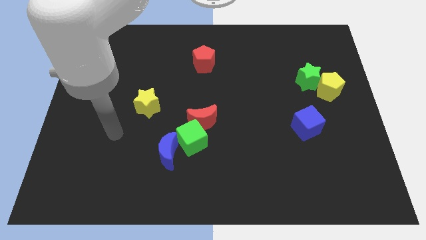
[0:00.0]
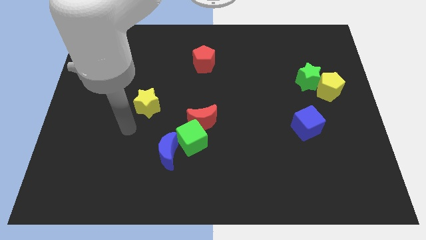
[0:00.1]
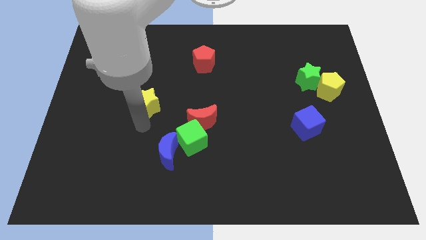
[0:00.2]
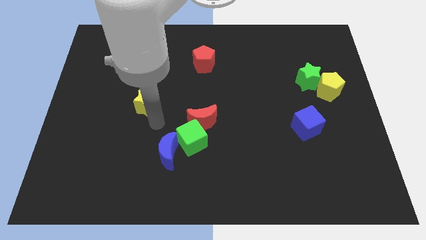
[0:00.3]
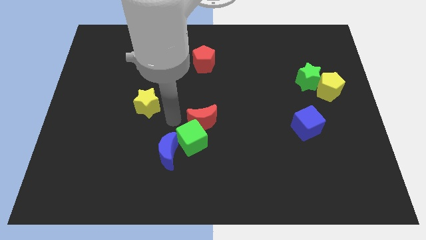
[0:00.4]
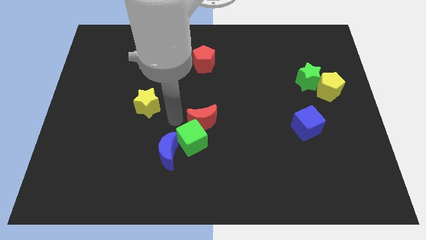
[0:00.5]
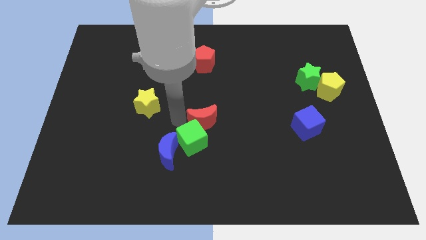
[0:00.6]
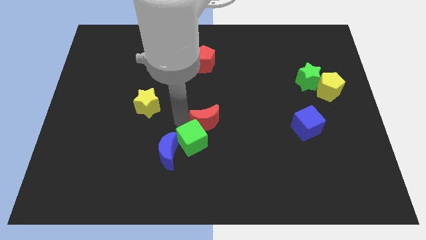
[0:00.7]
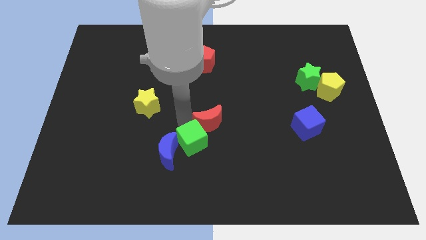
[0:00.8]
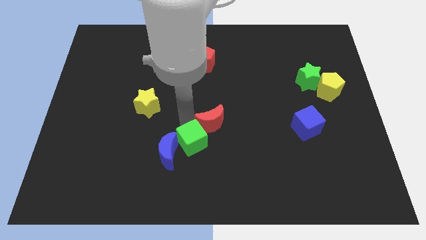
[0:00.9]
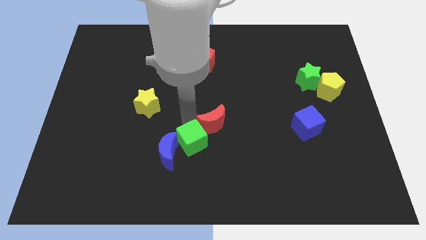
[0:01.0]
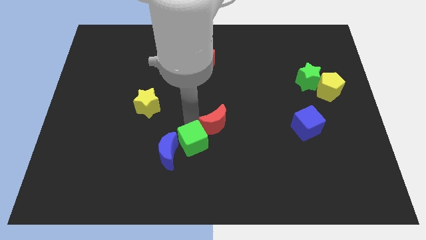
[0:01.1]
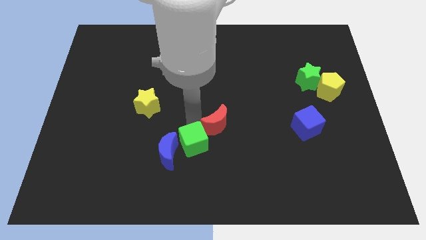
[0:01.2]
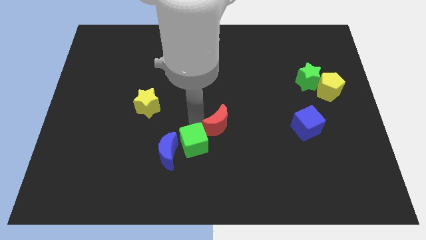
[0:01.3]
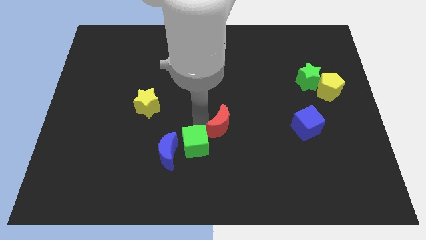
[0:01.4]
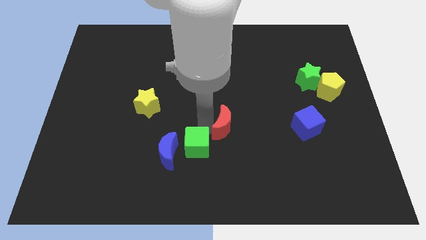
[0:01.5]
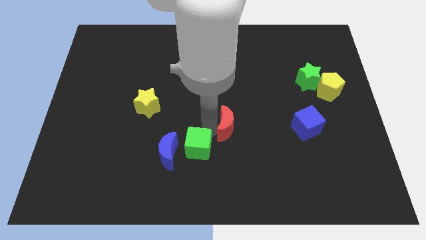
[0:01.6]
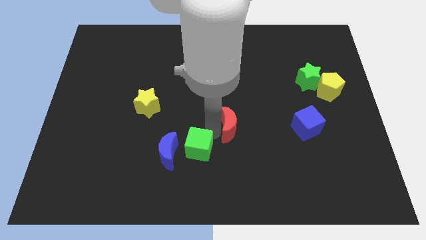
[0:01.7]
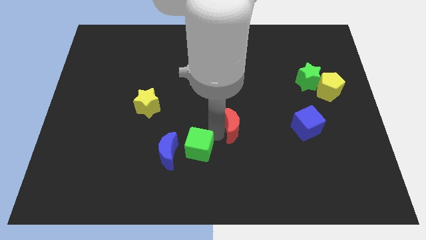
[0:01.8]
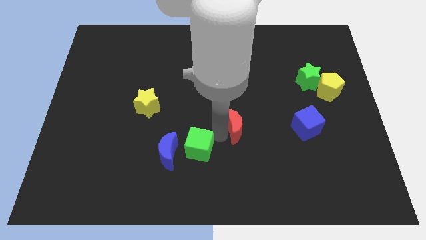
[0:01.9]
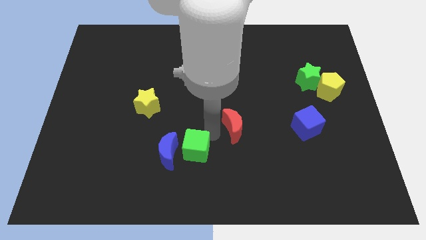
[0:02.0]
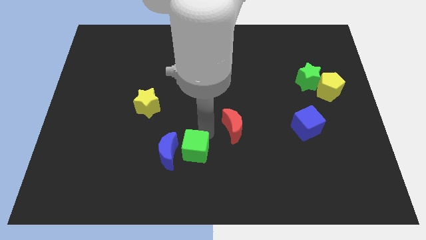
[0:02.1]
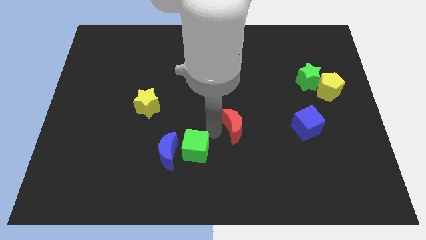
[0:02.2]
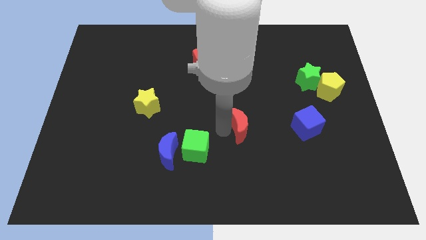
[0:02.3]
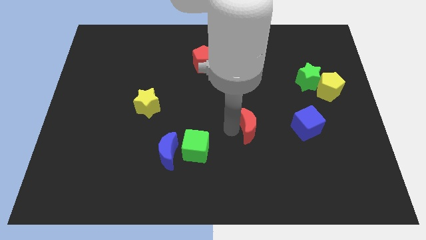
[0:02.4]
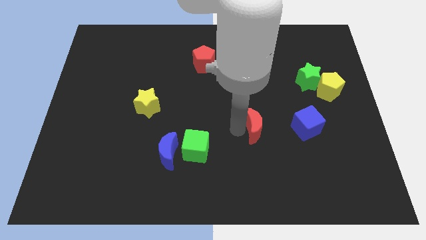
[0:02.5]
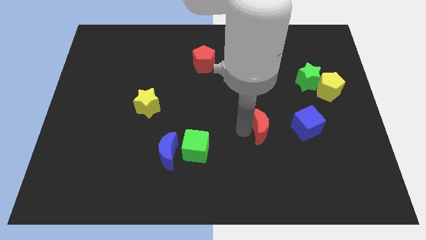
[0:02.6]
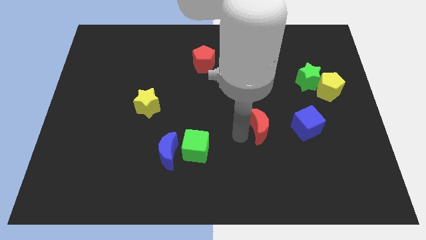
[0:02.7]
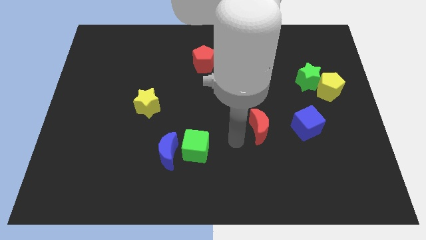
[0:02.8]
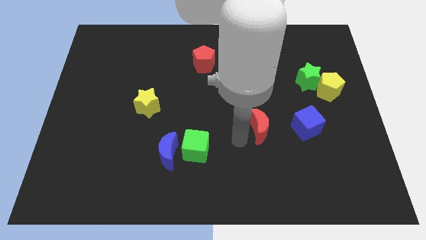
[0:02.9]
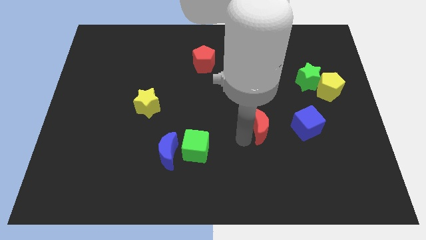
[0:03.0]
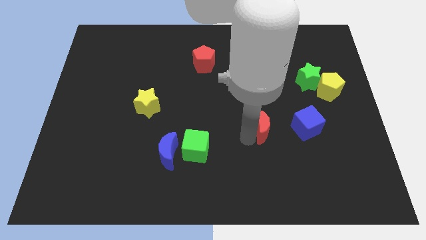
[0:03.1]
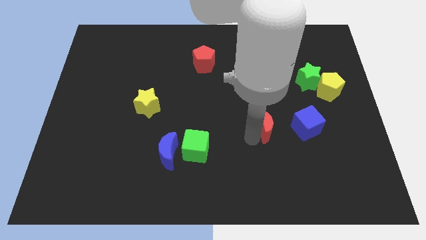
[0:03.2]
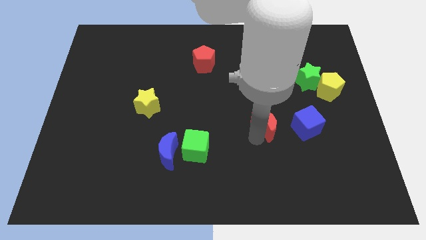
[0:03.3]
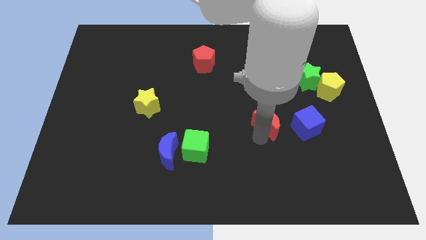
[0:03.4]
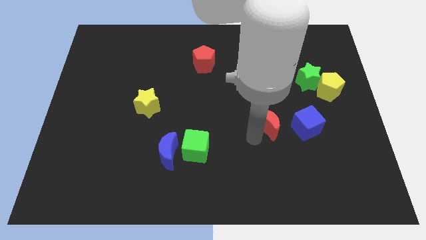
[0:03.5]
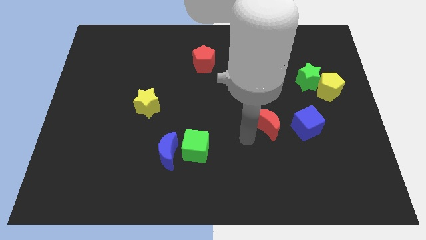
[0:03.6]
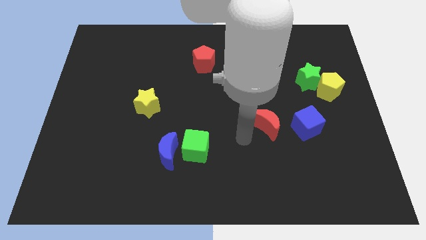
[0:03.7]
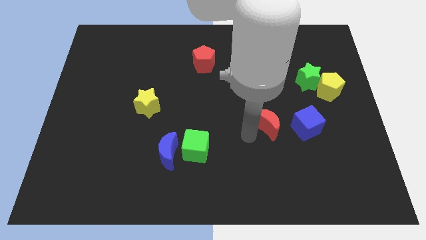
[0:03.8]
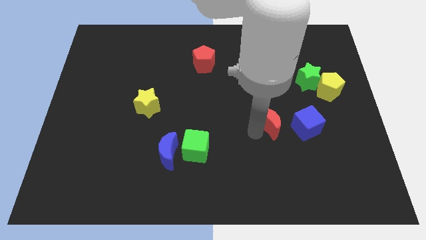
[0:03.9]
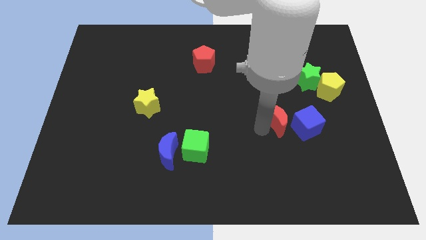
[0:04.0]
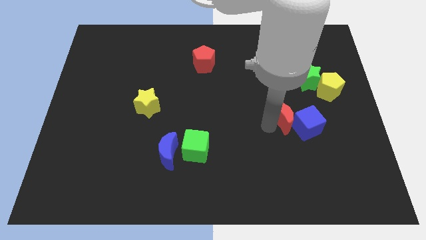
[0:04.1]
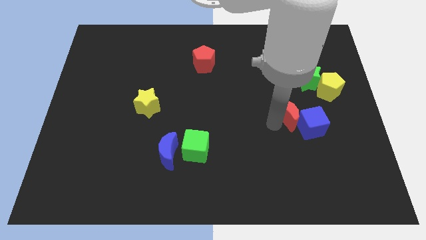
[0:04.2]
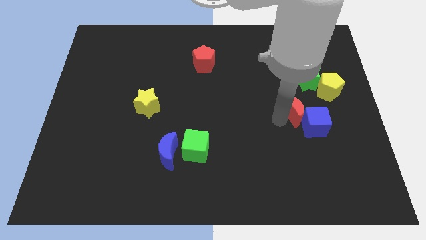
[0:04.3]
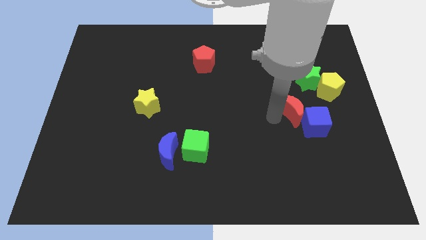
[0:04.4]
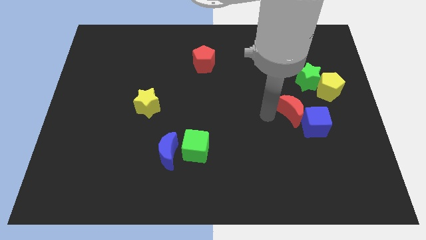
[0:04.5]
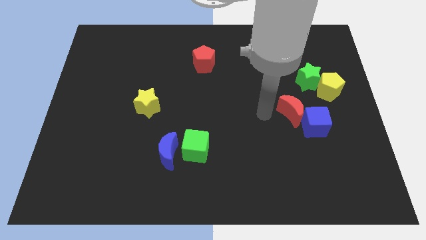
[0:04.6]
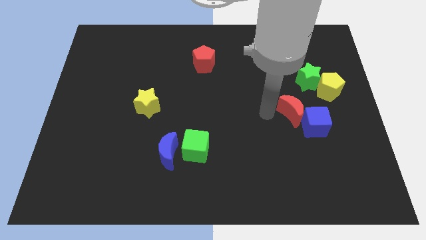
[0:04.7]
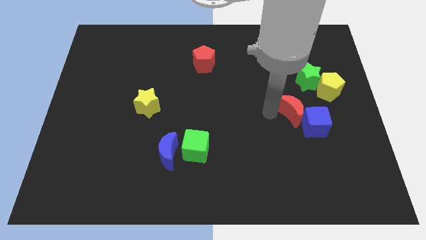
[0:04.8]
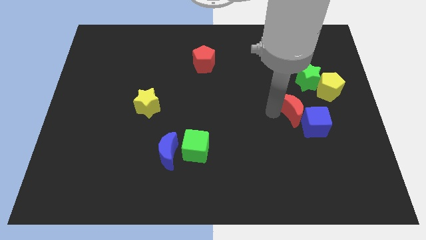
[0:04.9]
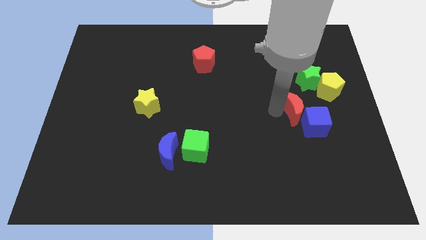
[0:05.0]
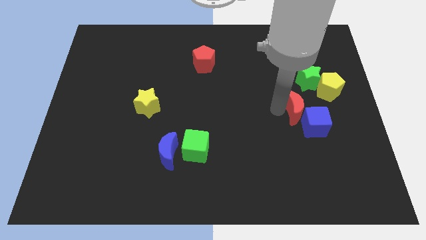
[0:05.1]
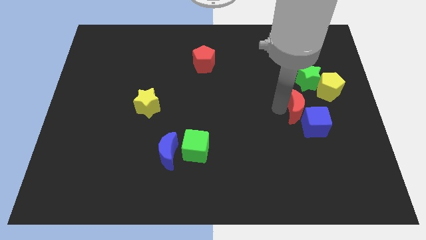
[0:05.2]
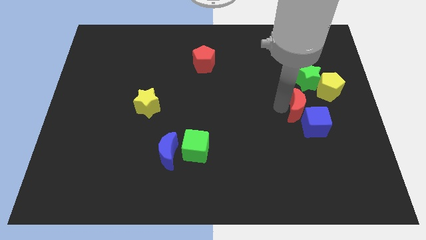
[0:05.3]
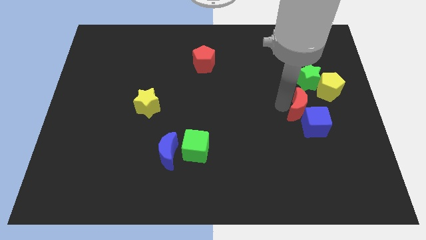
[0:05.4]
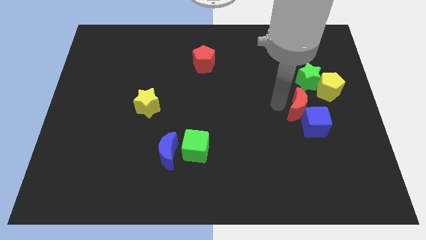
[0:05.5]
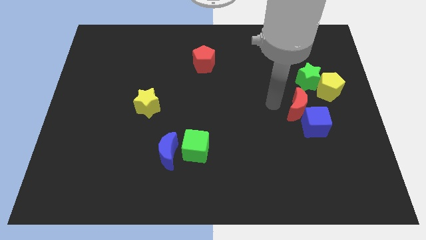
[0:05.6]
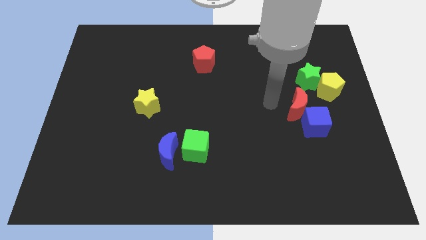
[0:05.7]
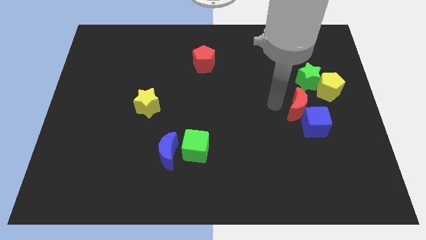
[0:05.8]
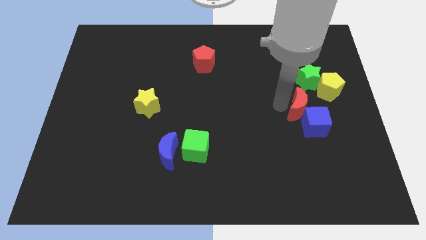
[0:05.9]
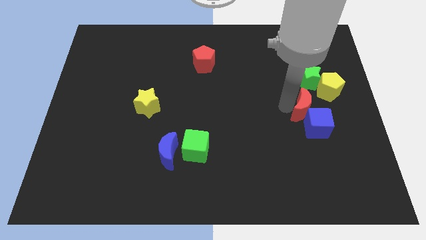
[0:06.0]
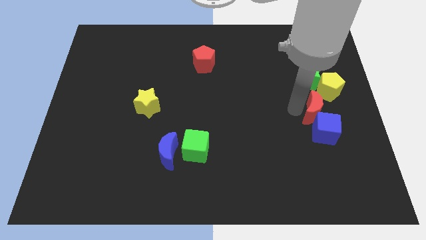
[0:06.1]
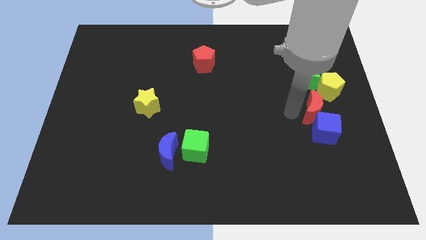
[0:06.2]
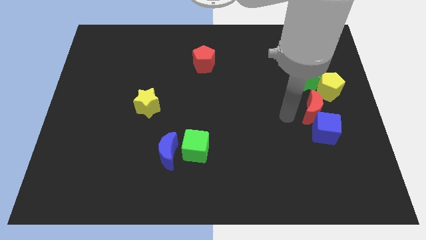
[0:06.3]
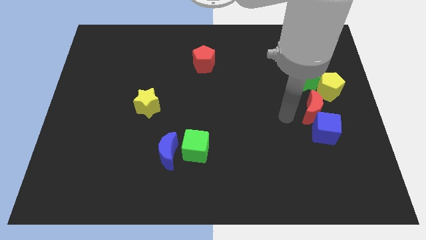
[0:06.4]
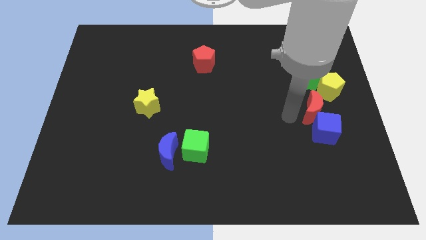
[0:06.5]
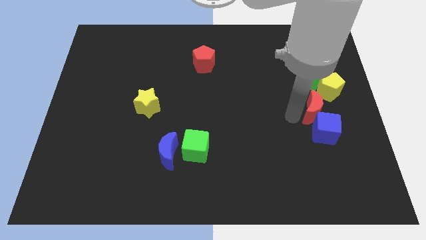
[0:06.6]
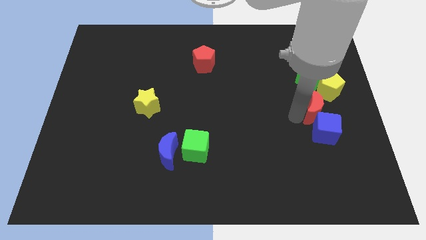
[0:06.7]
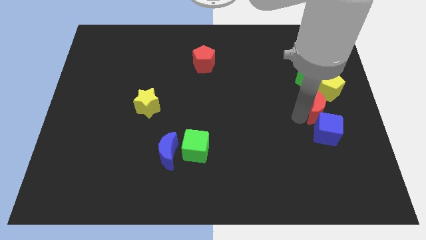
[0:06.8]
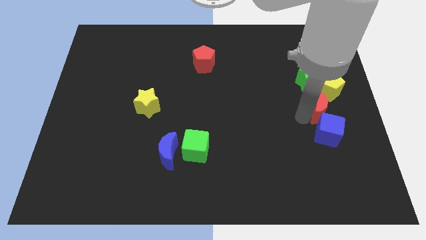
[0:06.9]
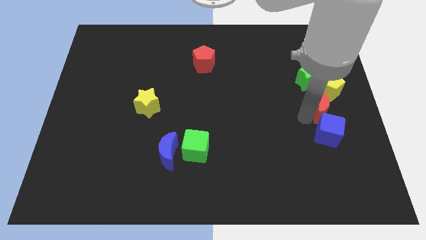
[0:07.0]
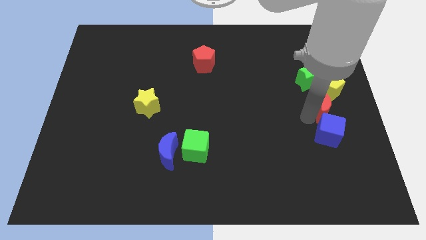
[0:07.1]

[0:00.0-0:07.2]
slide the red moon to the center right
